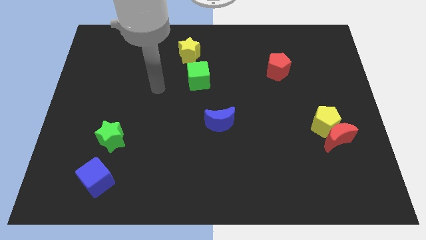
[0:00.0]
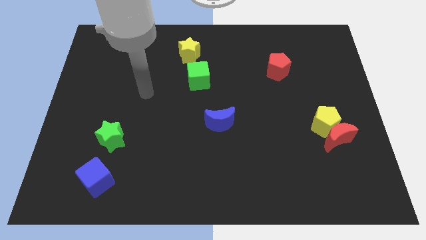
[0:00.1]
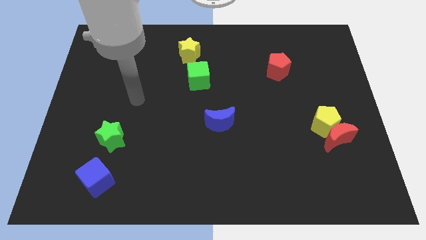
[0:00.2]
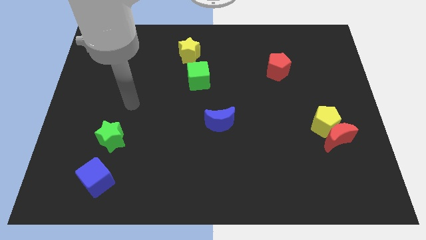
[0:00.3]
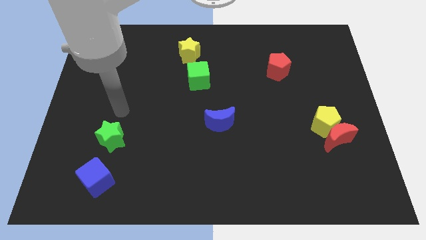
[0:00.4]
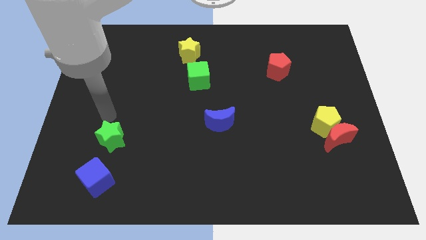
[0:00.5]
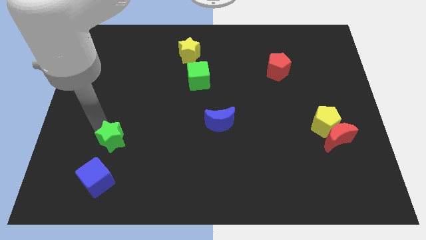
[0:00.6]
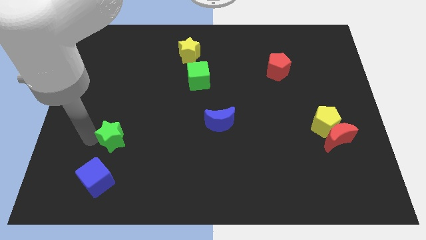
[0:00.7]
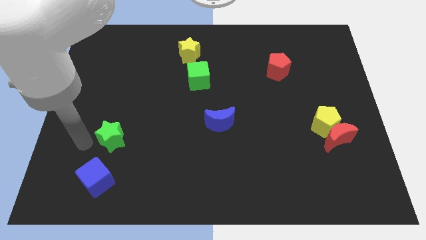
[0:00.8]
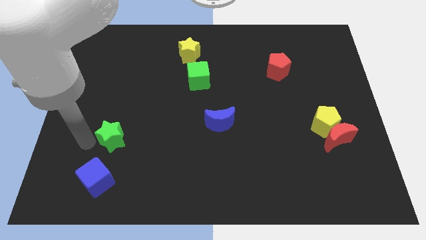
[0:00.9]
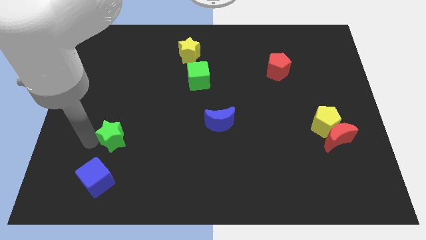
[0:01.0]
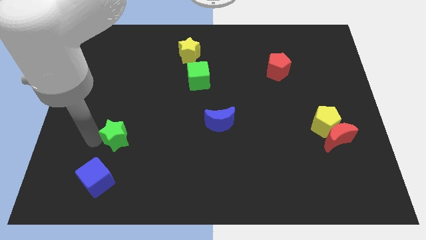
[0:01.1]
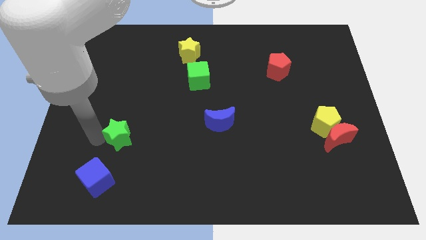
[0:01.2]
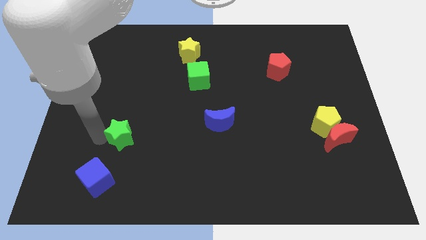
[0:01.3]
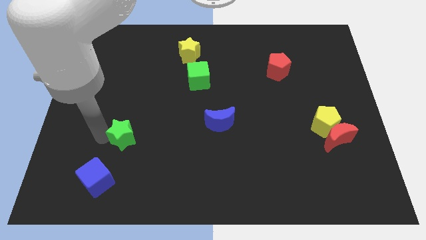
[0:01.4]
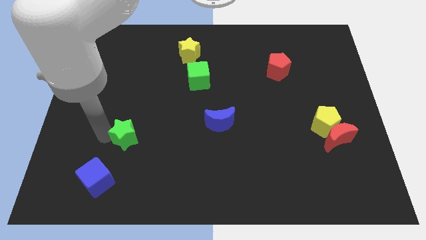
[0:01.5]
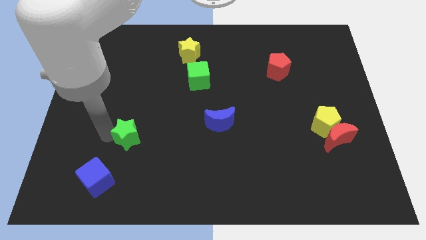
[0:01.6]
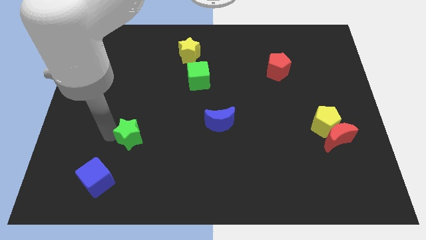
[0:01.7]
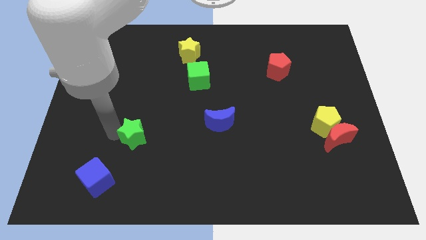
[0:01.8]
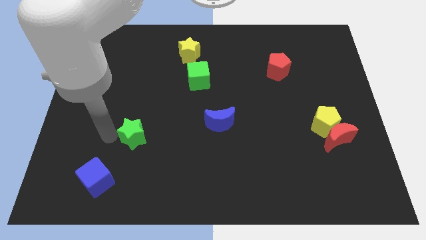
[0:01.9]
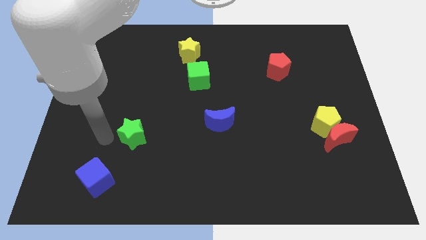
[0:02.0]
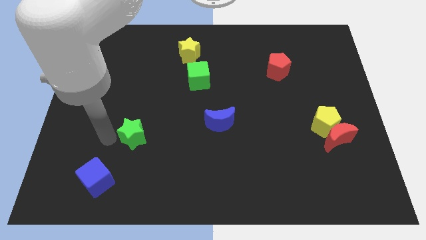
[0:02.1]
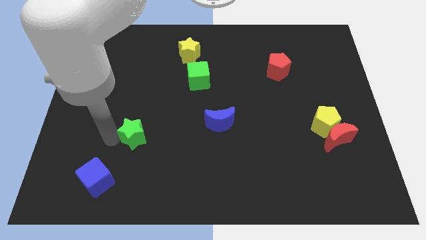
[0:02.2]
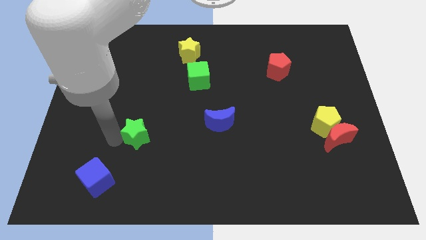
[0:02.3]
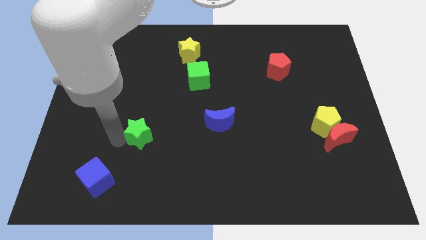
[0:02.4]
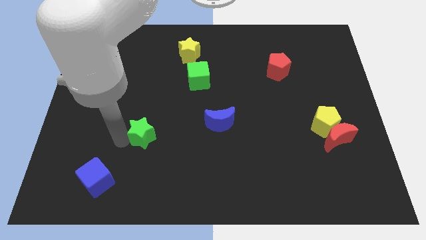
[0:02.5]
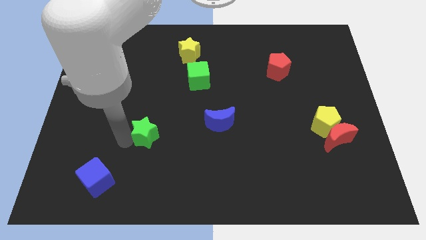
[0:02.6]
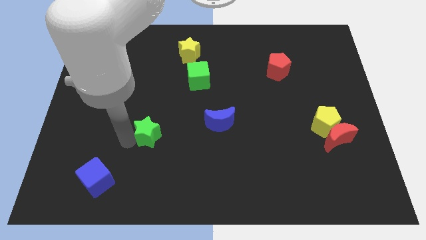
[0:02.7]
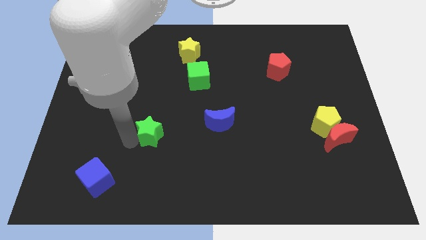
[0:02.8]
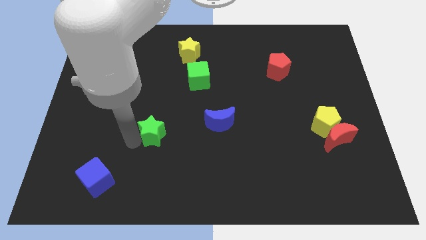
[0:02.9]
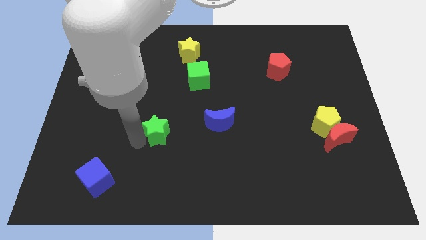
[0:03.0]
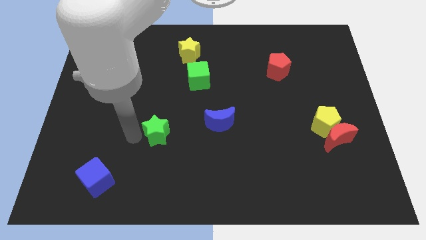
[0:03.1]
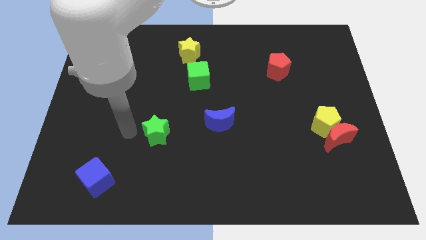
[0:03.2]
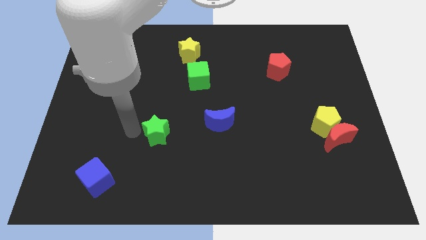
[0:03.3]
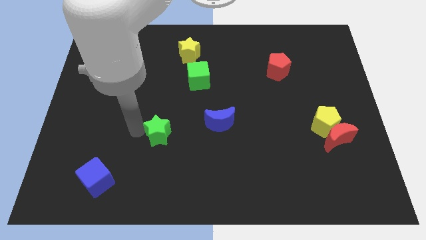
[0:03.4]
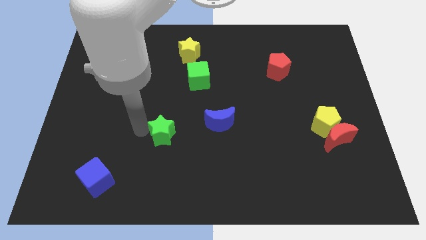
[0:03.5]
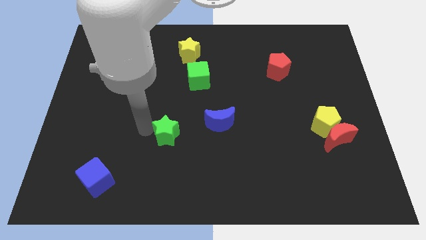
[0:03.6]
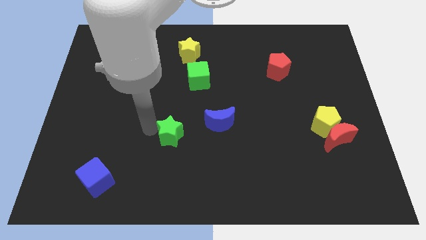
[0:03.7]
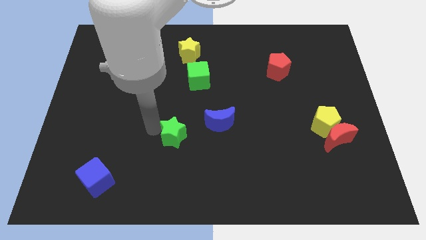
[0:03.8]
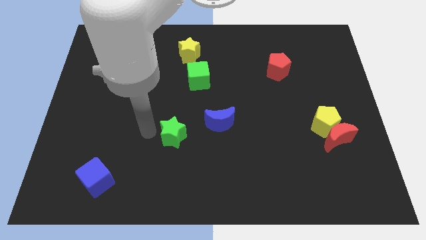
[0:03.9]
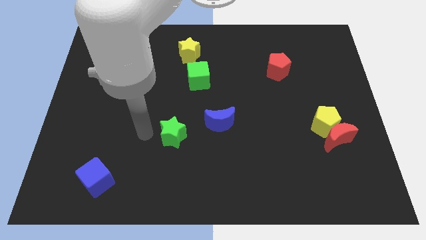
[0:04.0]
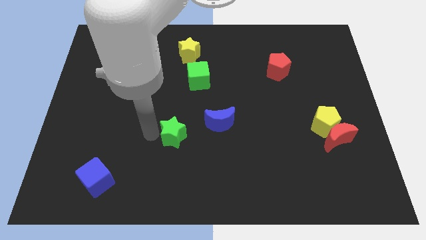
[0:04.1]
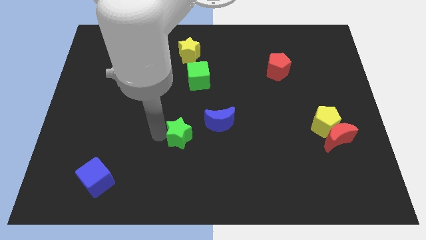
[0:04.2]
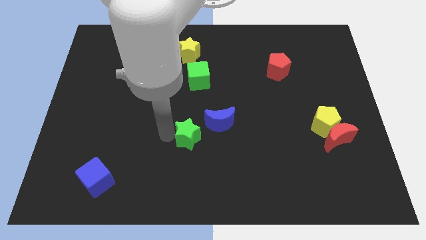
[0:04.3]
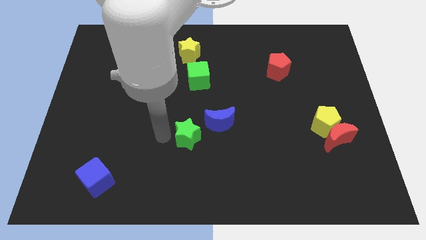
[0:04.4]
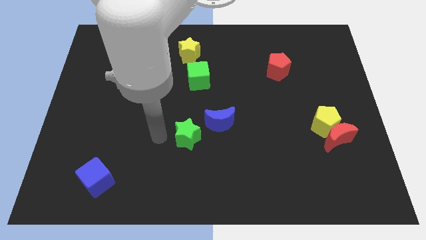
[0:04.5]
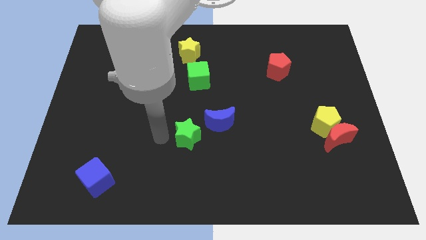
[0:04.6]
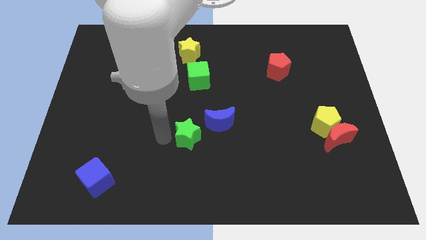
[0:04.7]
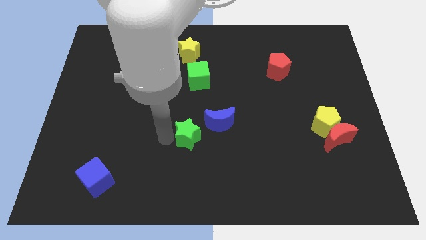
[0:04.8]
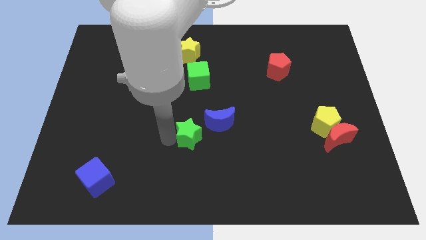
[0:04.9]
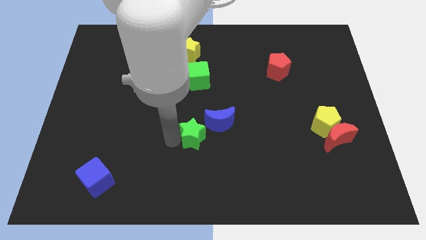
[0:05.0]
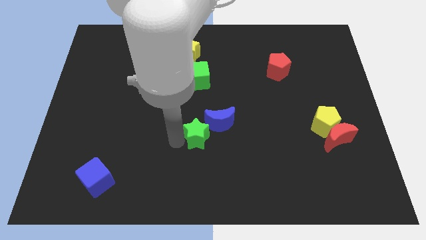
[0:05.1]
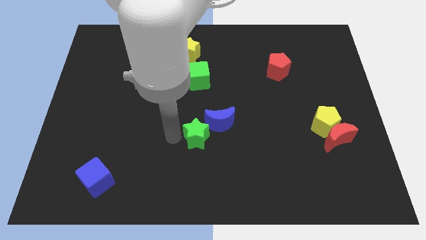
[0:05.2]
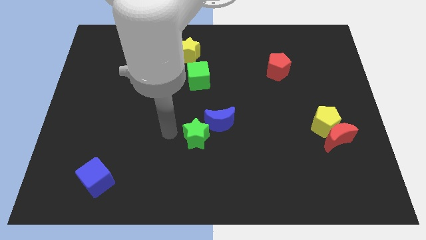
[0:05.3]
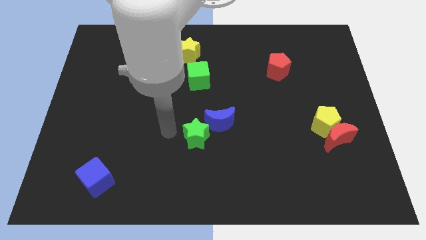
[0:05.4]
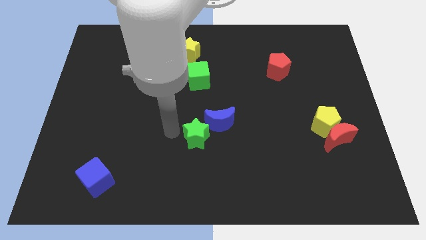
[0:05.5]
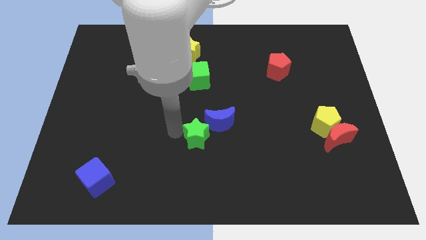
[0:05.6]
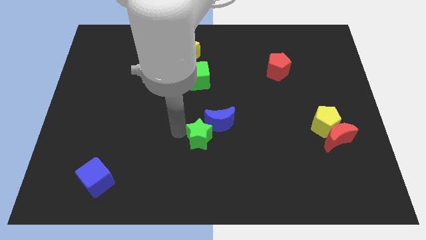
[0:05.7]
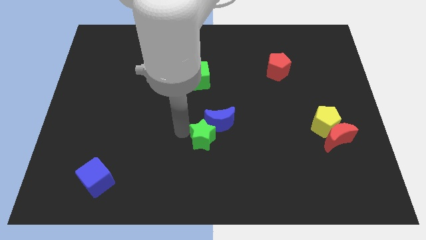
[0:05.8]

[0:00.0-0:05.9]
push the green star to the right

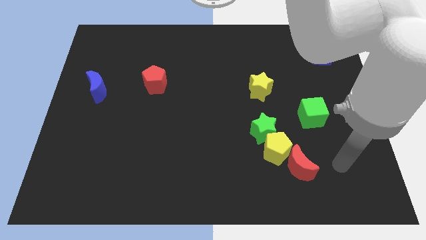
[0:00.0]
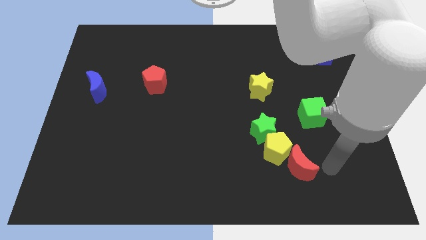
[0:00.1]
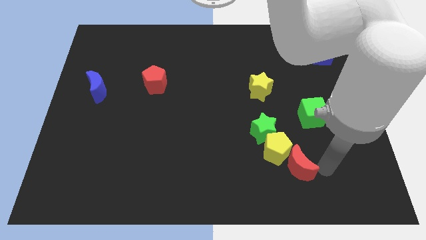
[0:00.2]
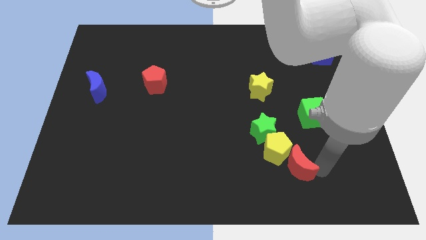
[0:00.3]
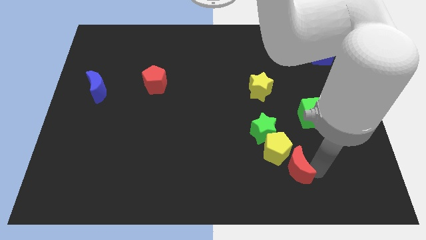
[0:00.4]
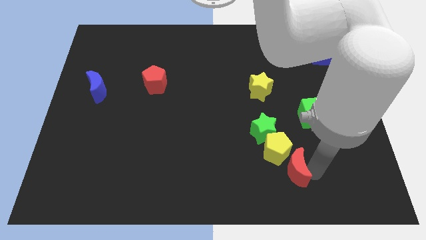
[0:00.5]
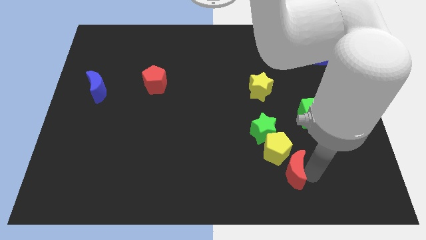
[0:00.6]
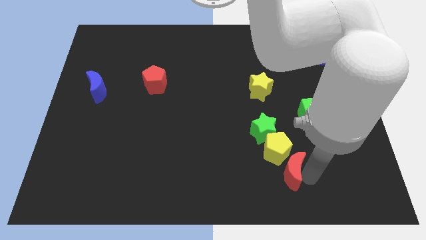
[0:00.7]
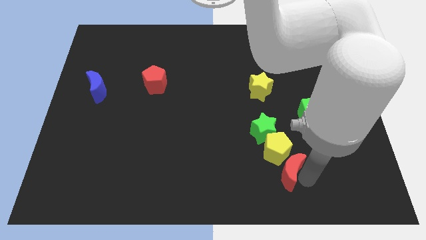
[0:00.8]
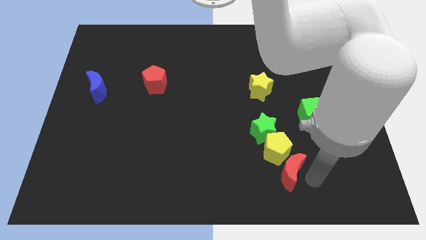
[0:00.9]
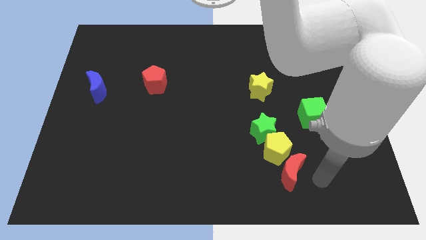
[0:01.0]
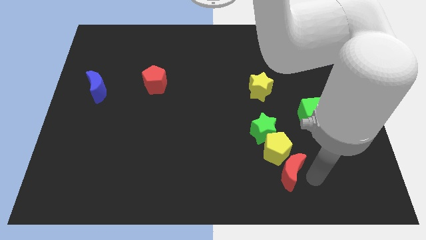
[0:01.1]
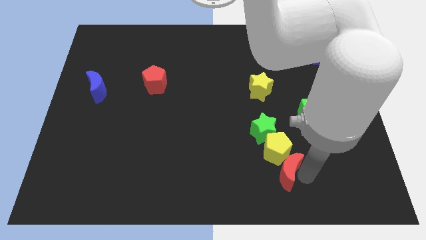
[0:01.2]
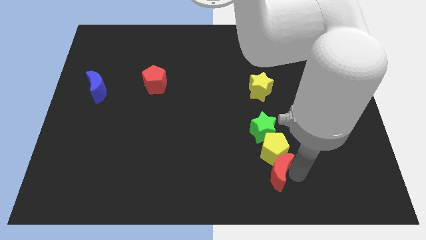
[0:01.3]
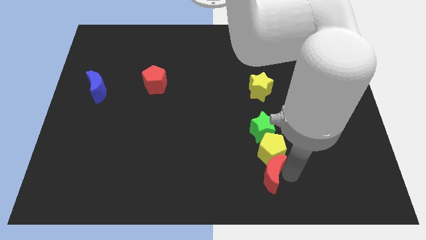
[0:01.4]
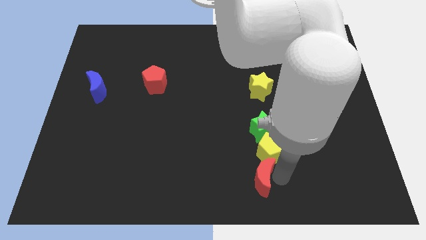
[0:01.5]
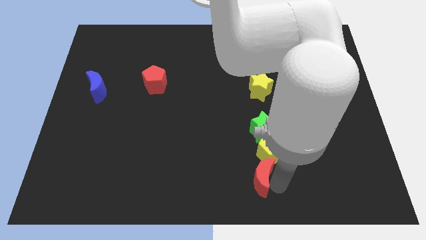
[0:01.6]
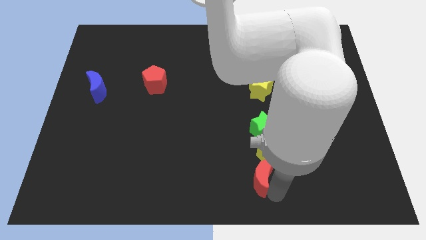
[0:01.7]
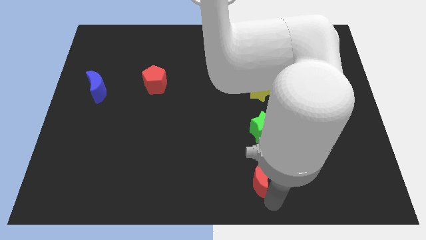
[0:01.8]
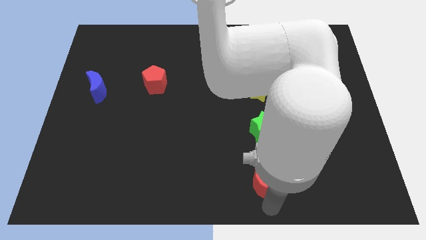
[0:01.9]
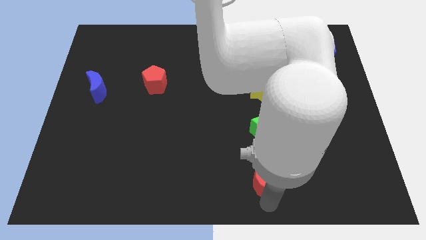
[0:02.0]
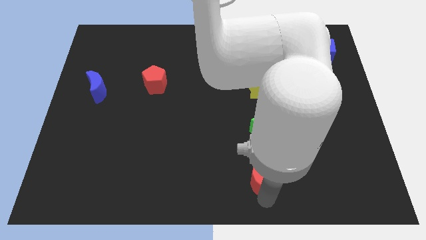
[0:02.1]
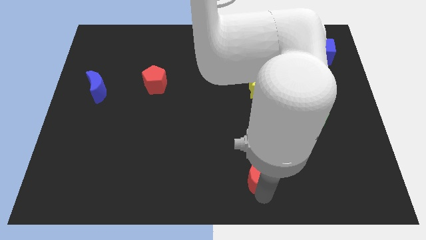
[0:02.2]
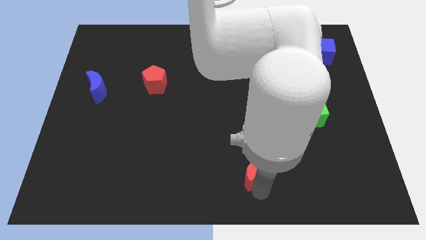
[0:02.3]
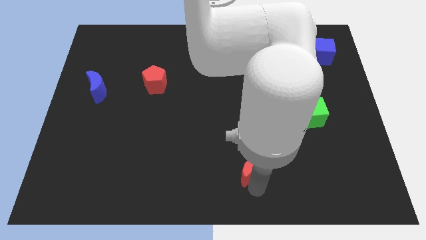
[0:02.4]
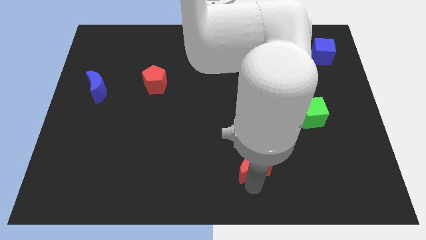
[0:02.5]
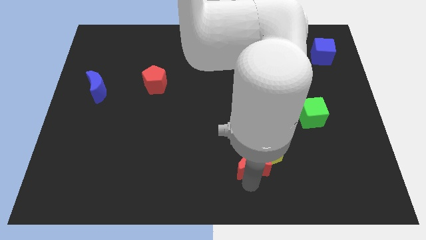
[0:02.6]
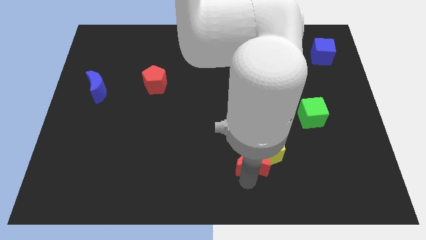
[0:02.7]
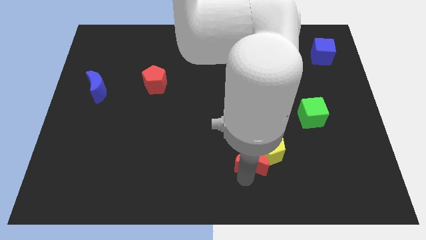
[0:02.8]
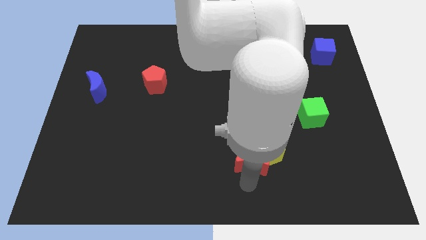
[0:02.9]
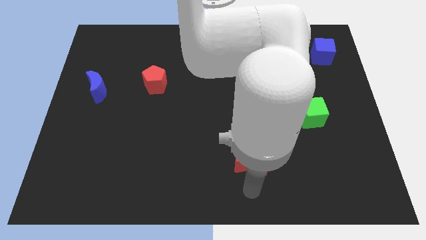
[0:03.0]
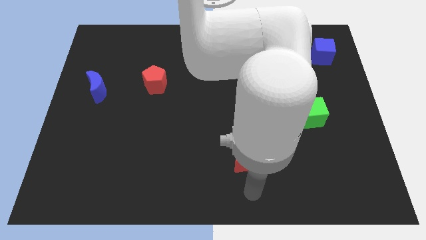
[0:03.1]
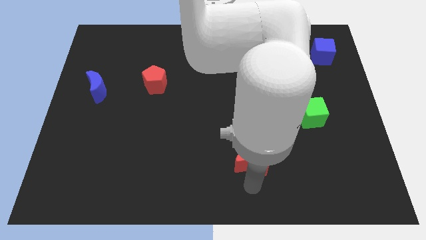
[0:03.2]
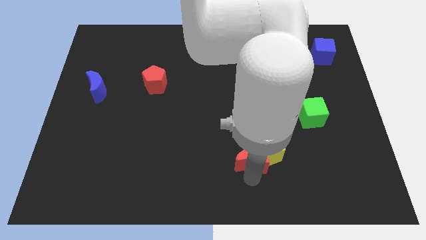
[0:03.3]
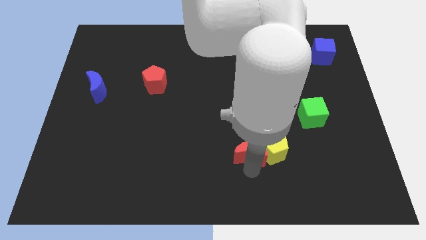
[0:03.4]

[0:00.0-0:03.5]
slide the red moon up and left a little bit
